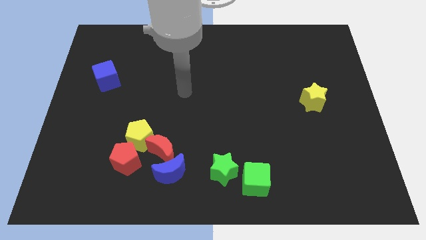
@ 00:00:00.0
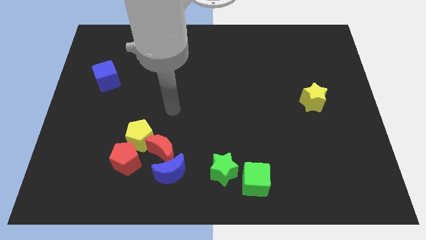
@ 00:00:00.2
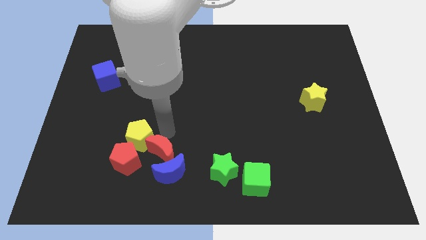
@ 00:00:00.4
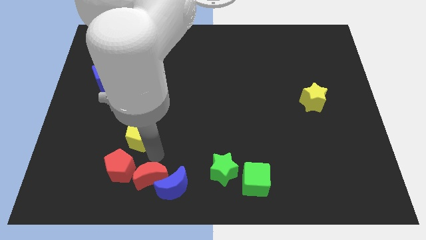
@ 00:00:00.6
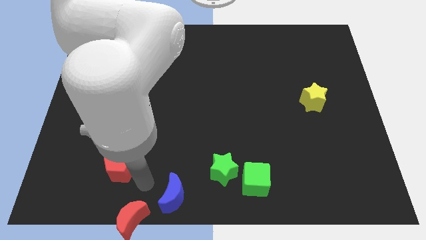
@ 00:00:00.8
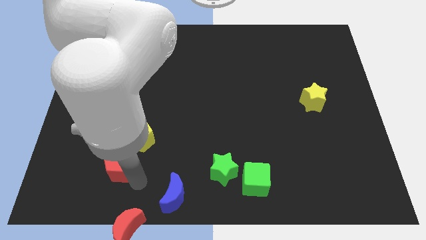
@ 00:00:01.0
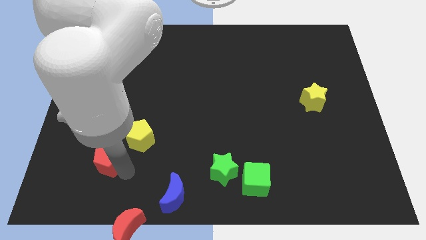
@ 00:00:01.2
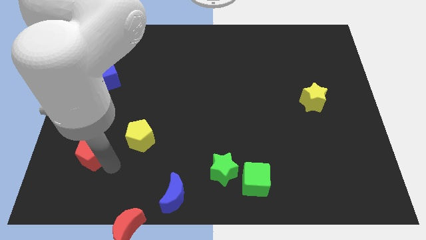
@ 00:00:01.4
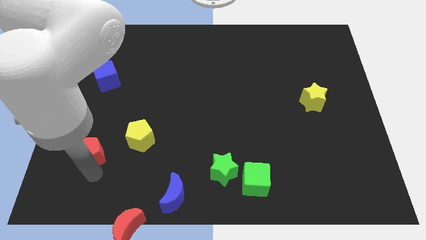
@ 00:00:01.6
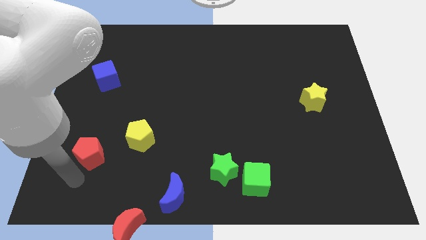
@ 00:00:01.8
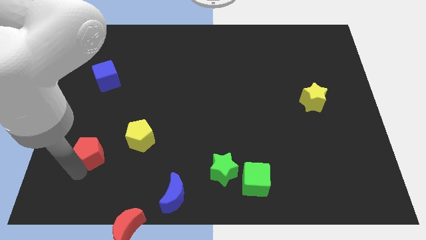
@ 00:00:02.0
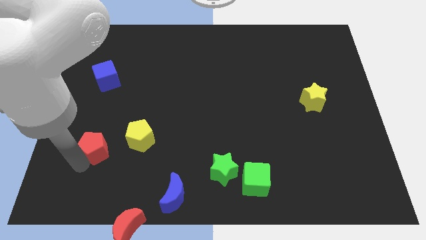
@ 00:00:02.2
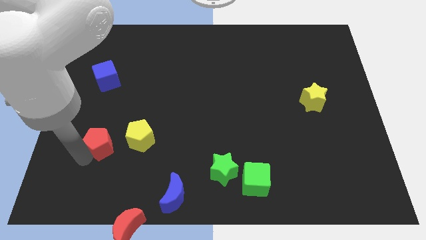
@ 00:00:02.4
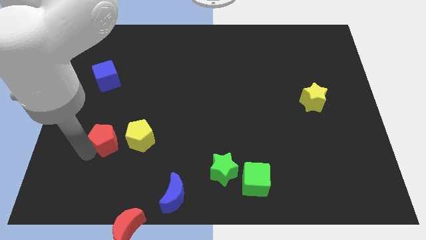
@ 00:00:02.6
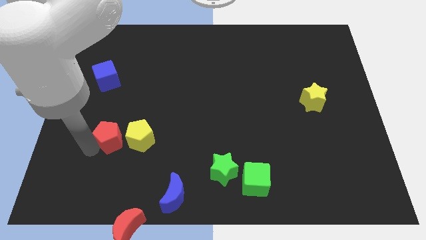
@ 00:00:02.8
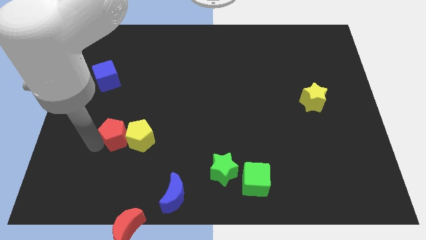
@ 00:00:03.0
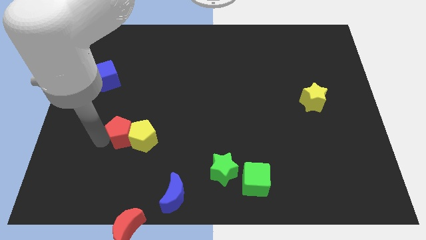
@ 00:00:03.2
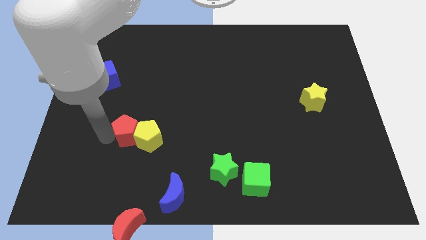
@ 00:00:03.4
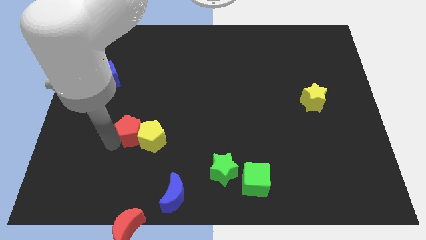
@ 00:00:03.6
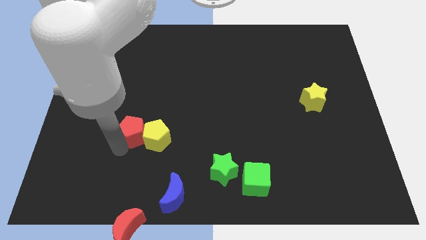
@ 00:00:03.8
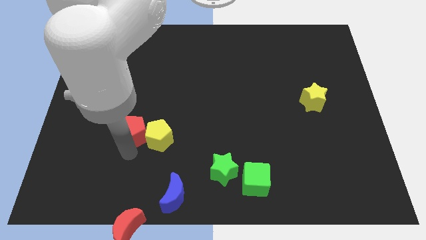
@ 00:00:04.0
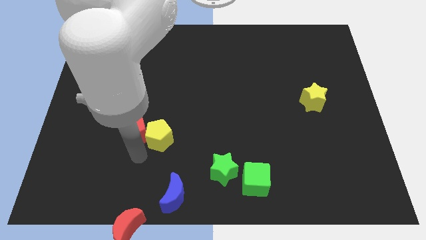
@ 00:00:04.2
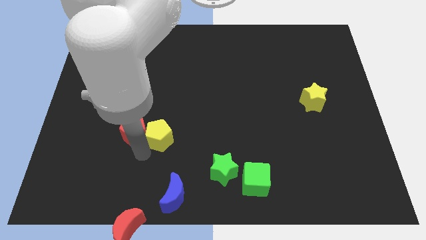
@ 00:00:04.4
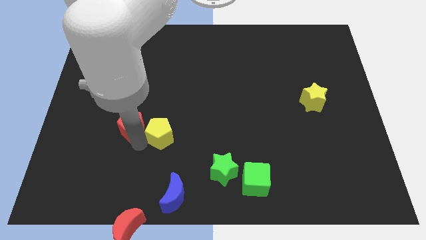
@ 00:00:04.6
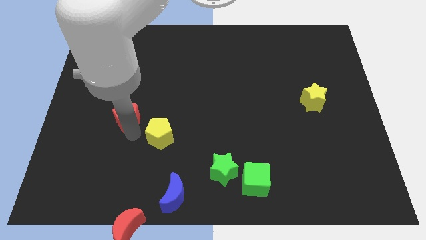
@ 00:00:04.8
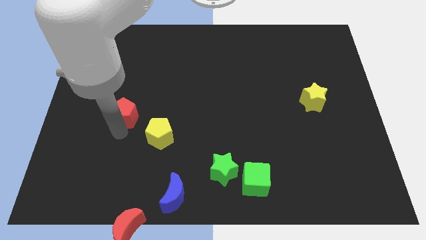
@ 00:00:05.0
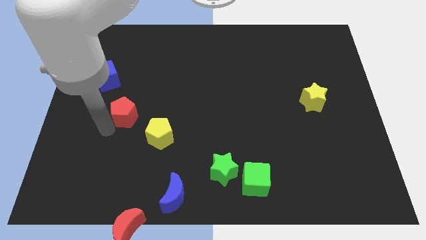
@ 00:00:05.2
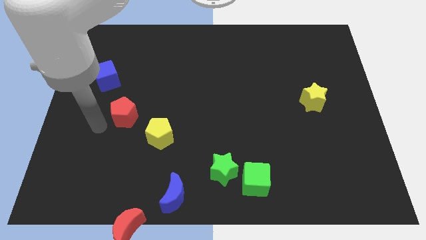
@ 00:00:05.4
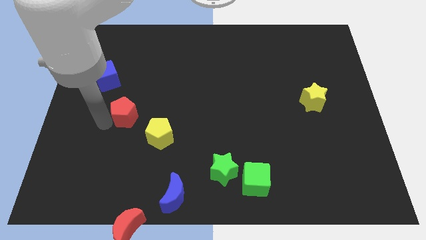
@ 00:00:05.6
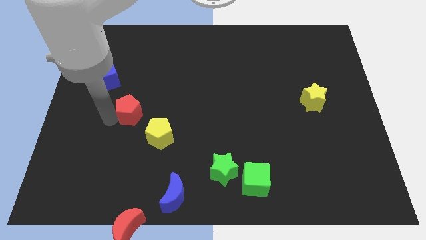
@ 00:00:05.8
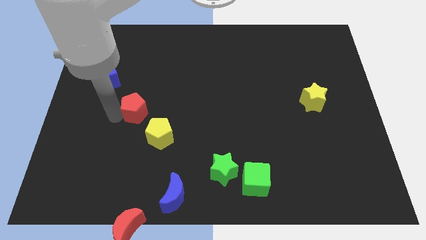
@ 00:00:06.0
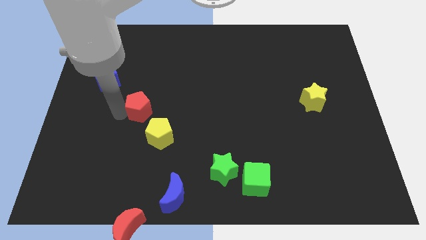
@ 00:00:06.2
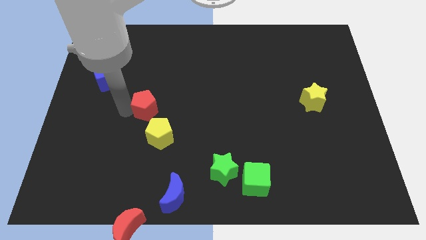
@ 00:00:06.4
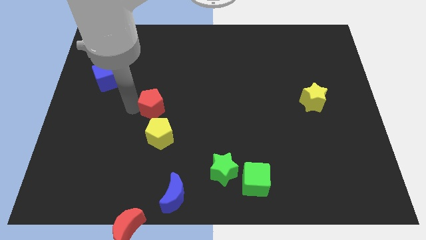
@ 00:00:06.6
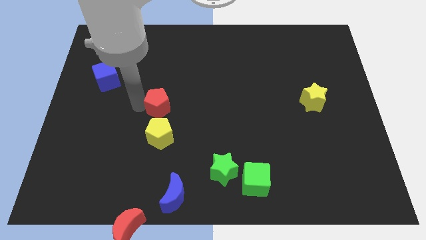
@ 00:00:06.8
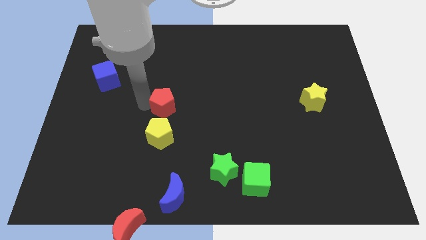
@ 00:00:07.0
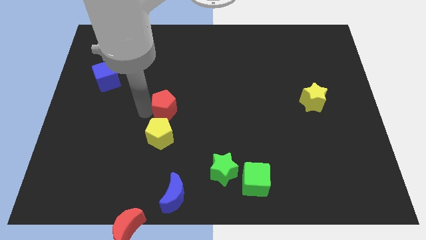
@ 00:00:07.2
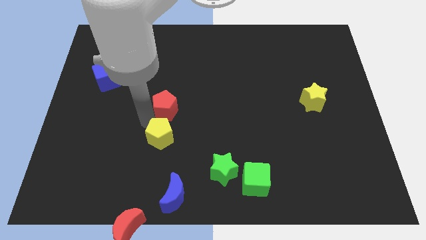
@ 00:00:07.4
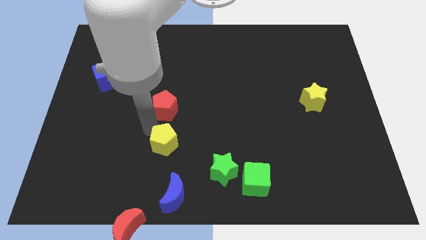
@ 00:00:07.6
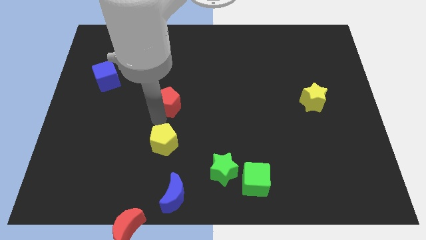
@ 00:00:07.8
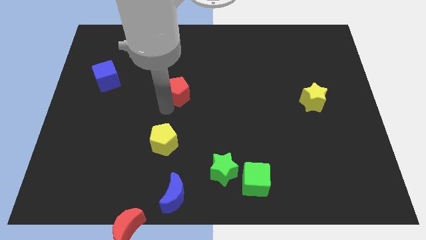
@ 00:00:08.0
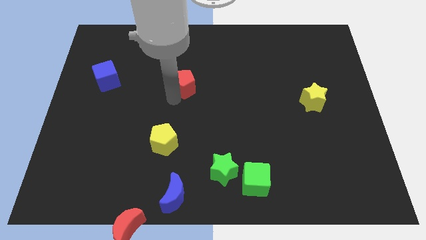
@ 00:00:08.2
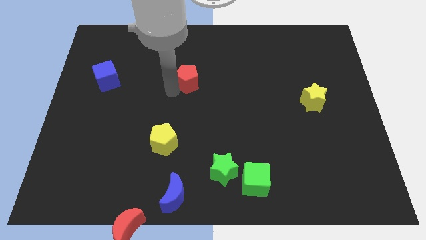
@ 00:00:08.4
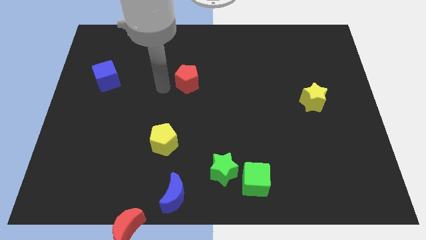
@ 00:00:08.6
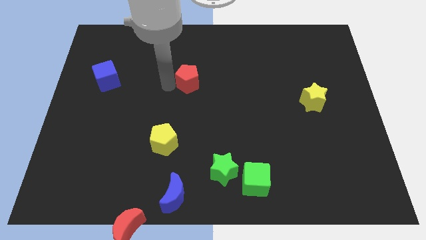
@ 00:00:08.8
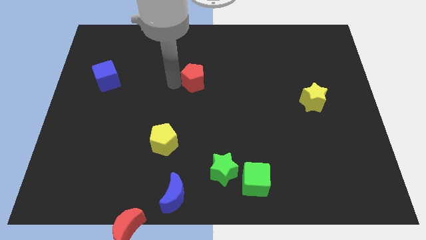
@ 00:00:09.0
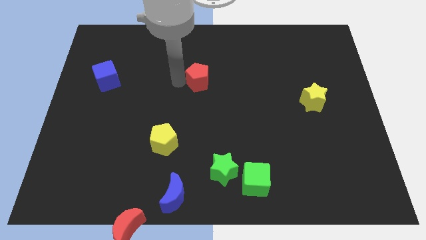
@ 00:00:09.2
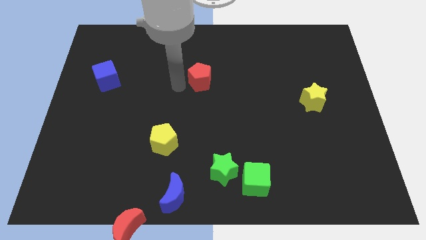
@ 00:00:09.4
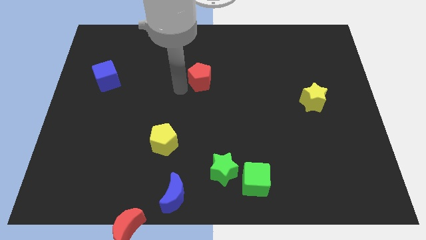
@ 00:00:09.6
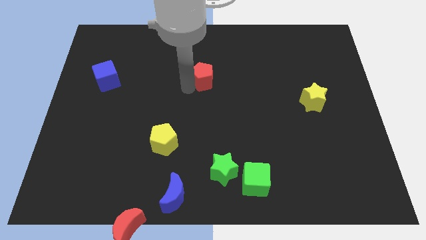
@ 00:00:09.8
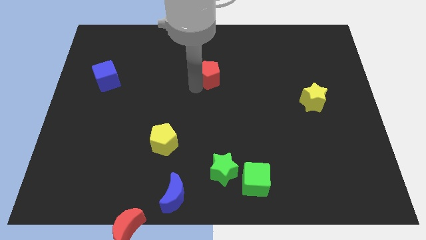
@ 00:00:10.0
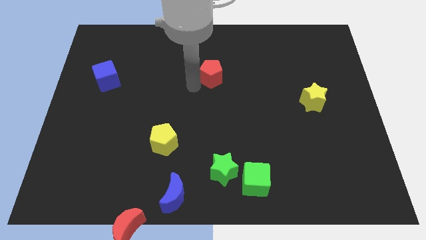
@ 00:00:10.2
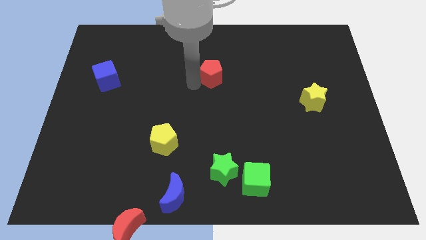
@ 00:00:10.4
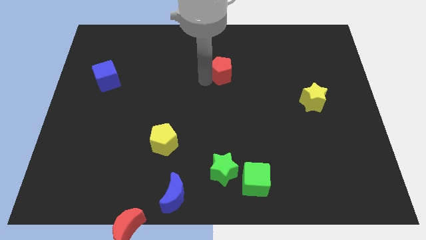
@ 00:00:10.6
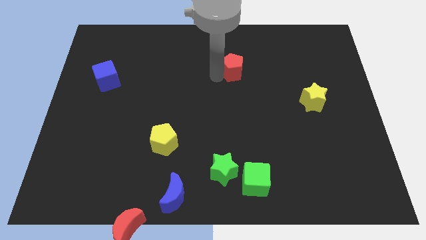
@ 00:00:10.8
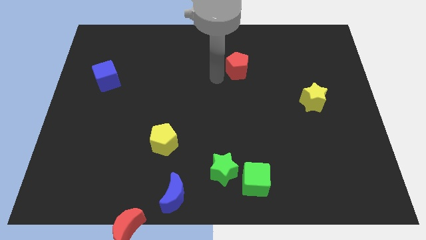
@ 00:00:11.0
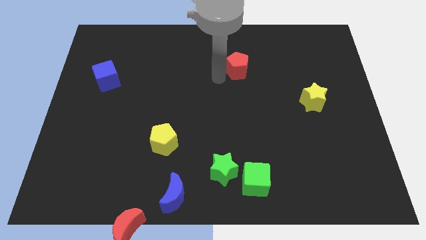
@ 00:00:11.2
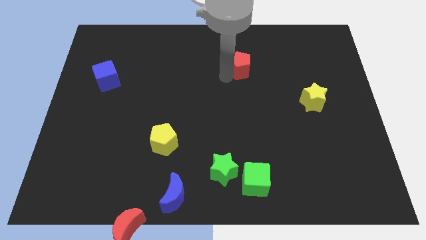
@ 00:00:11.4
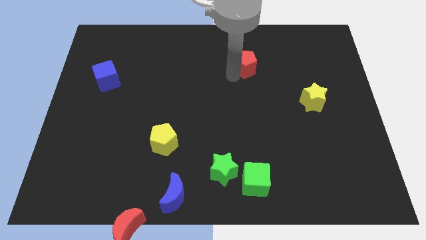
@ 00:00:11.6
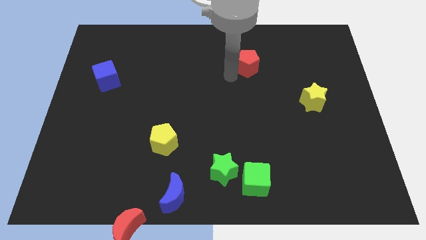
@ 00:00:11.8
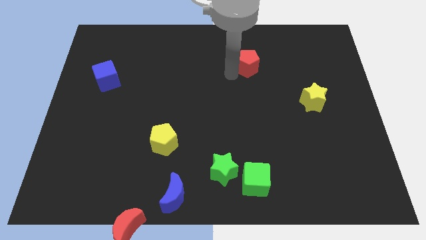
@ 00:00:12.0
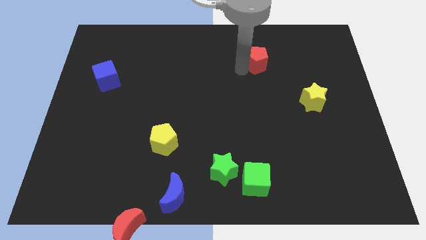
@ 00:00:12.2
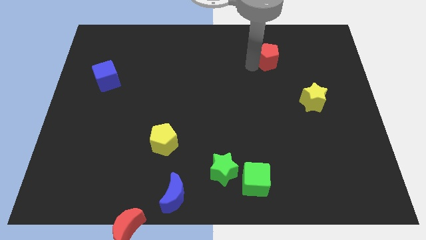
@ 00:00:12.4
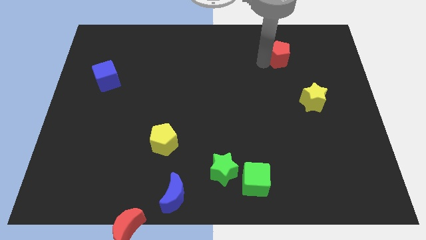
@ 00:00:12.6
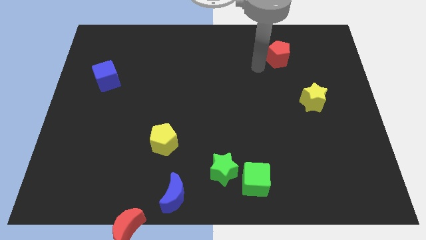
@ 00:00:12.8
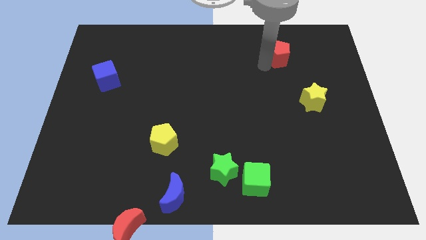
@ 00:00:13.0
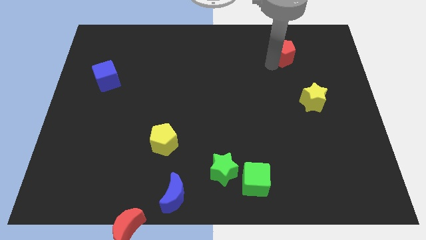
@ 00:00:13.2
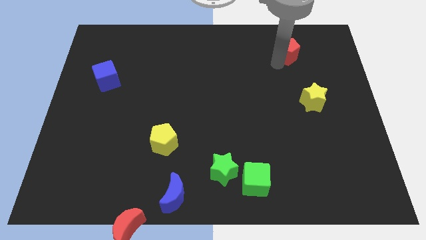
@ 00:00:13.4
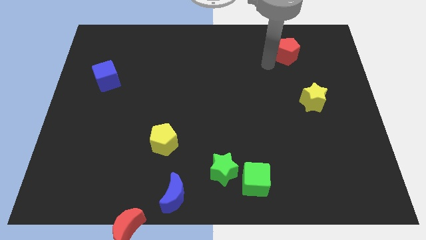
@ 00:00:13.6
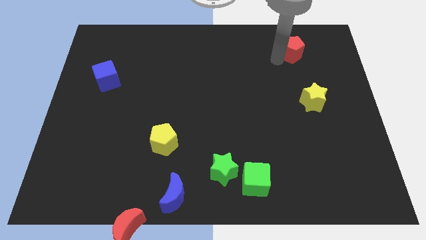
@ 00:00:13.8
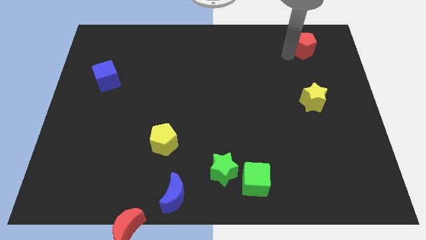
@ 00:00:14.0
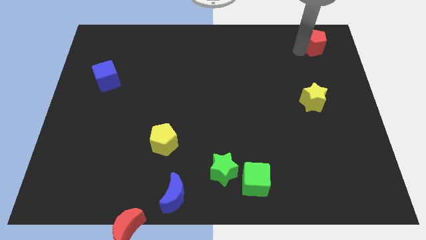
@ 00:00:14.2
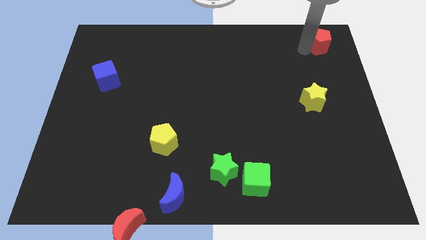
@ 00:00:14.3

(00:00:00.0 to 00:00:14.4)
slide the red pentagon to the top right
